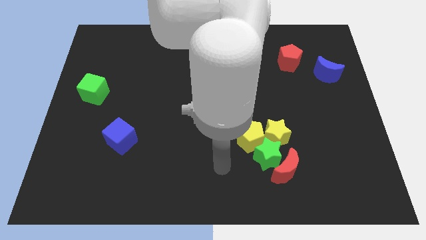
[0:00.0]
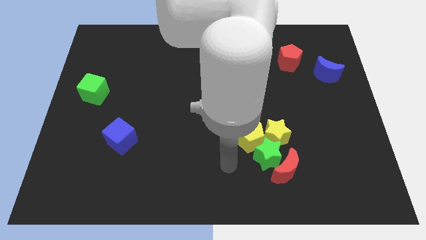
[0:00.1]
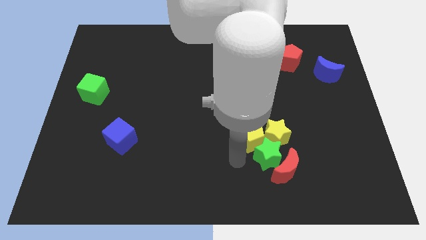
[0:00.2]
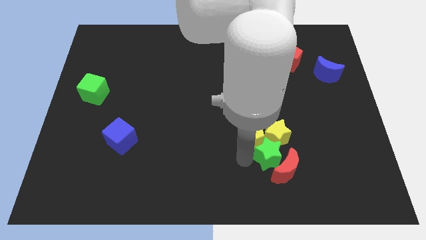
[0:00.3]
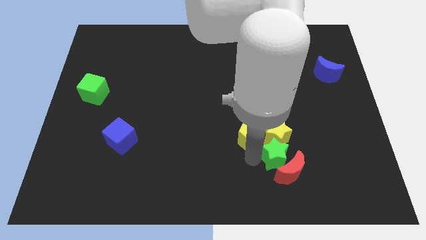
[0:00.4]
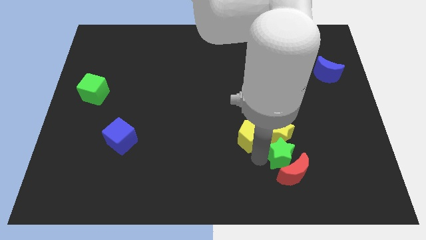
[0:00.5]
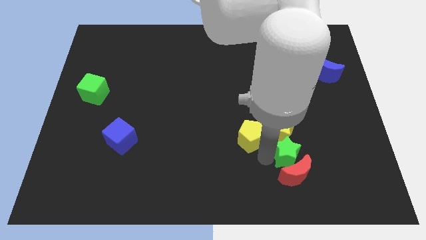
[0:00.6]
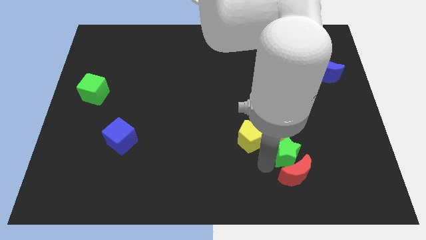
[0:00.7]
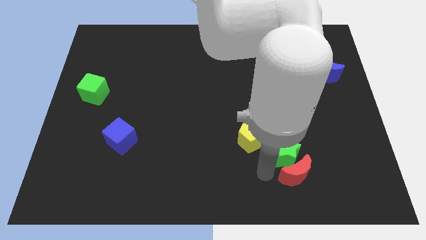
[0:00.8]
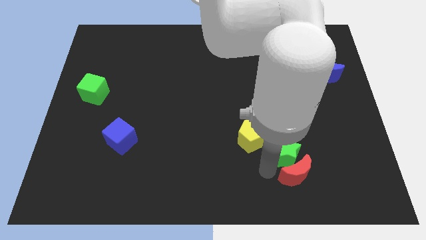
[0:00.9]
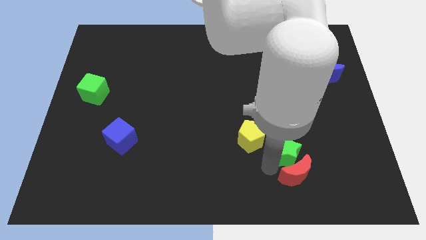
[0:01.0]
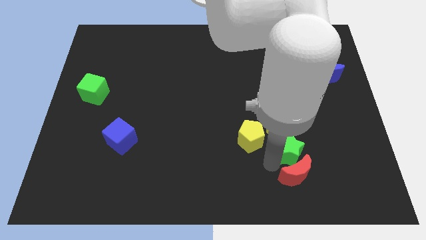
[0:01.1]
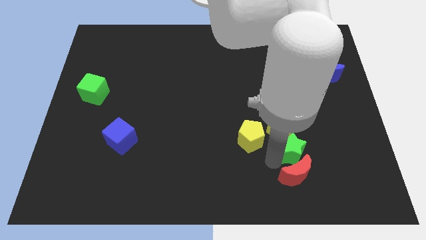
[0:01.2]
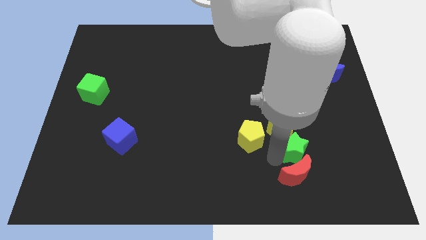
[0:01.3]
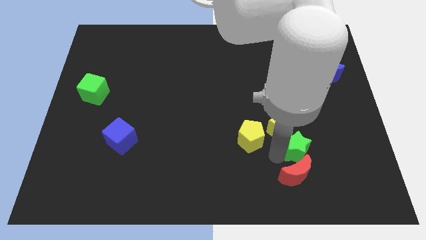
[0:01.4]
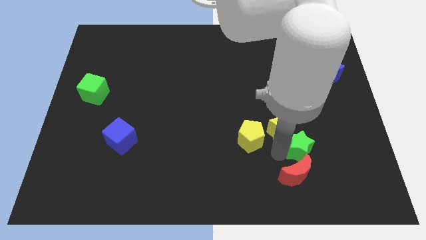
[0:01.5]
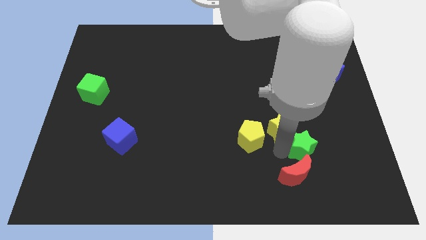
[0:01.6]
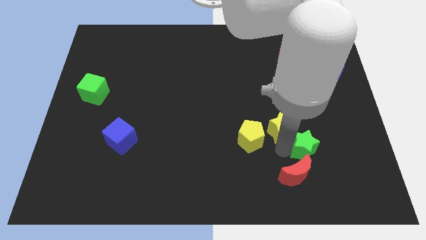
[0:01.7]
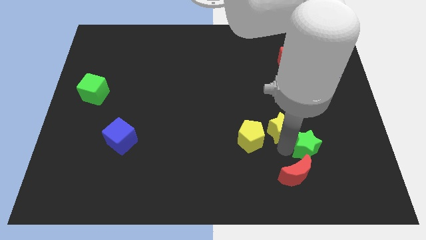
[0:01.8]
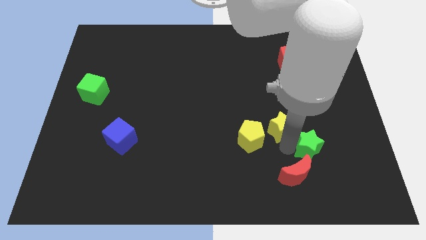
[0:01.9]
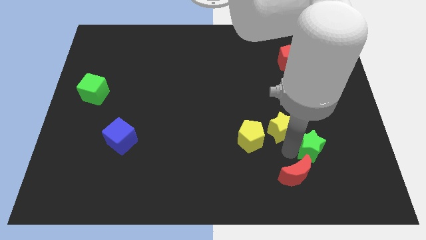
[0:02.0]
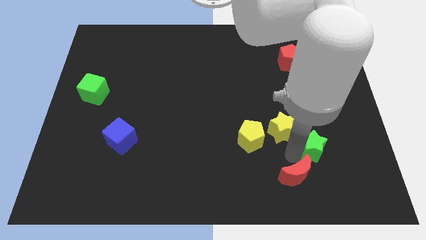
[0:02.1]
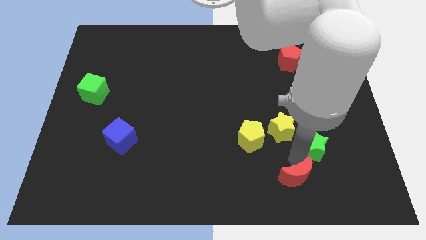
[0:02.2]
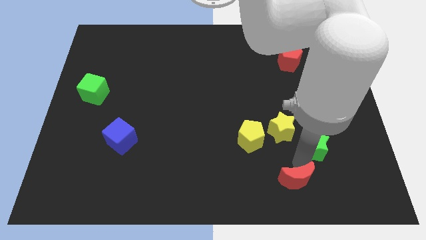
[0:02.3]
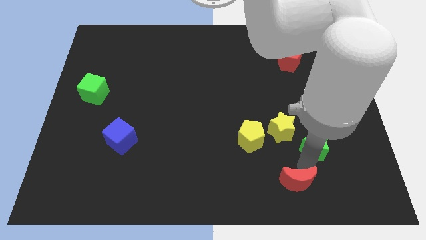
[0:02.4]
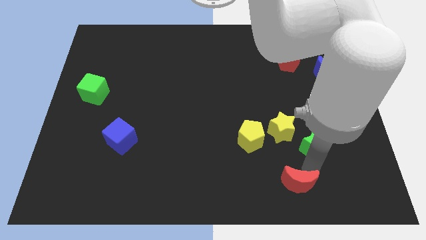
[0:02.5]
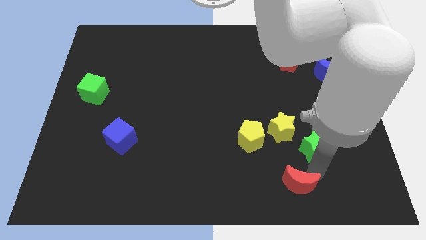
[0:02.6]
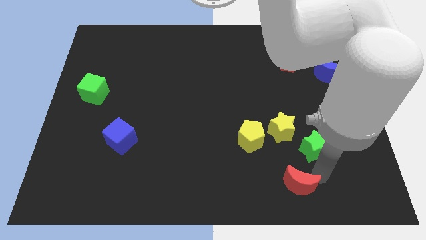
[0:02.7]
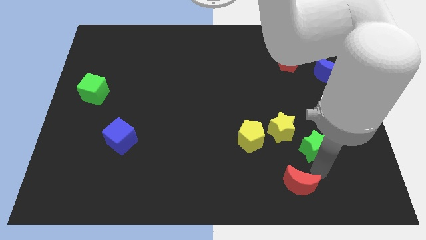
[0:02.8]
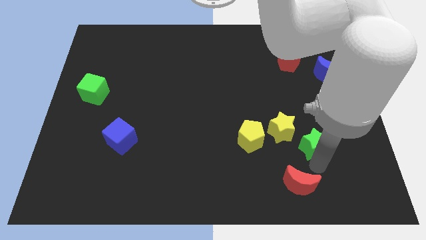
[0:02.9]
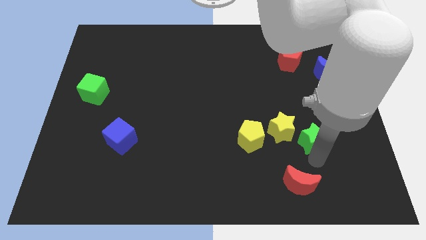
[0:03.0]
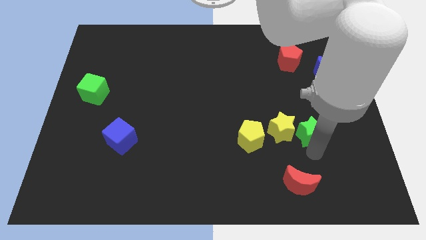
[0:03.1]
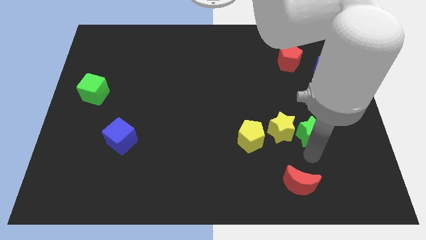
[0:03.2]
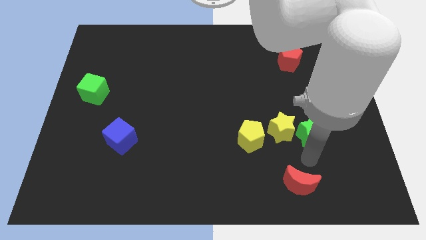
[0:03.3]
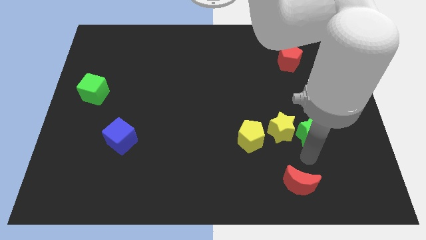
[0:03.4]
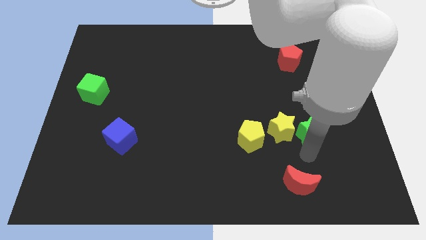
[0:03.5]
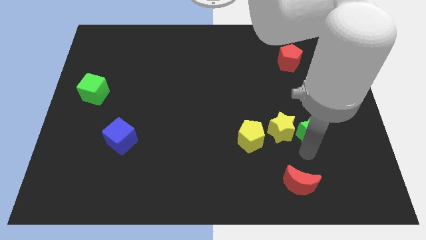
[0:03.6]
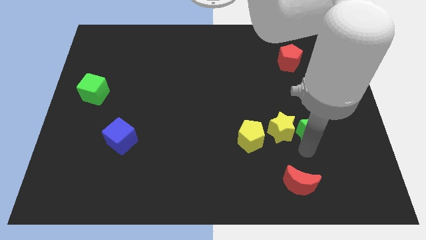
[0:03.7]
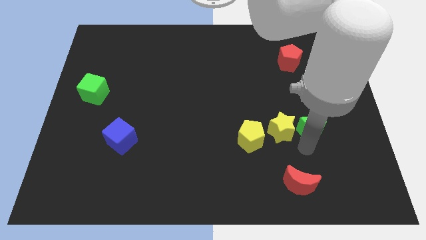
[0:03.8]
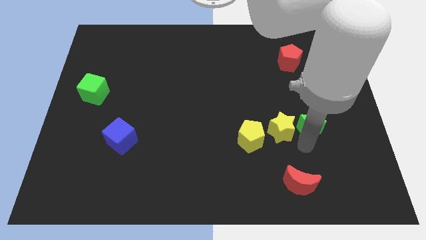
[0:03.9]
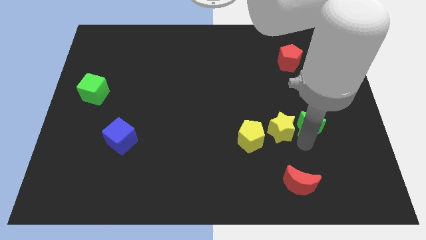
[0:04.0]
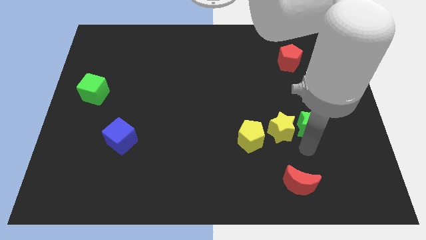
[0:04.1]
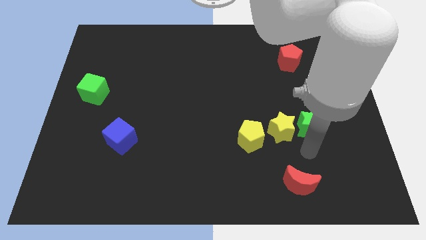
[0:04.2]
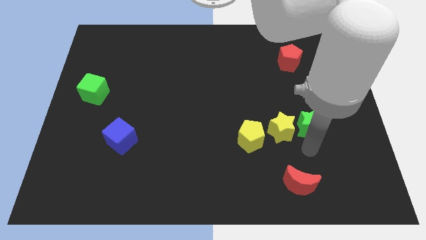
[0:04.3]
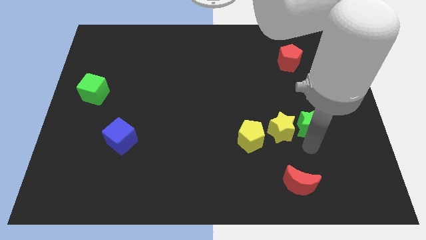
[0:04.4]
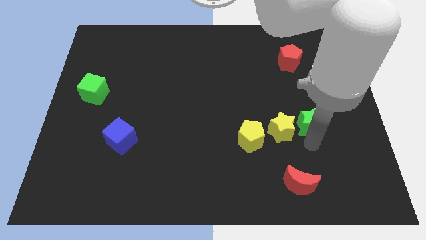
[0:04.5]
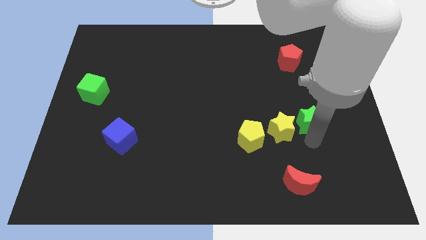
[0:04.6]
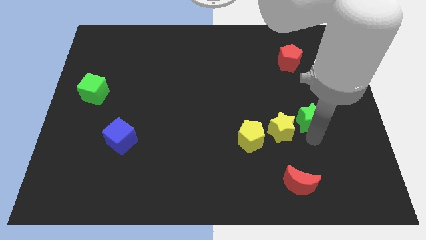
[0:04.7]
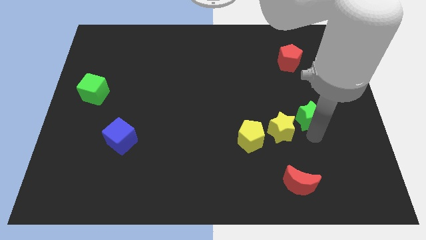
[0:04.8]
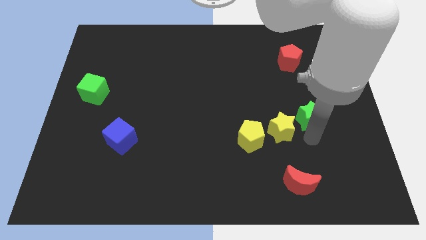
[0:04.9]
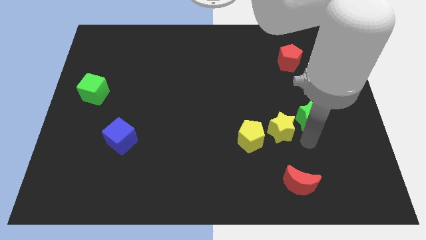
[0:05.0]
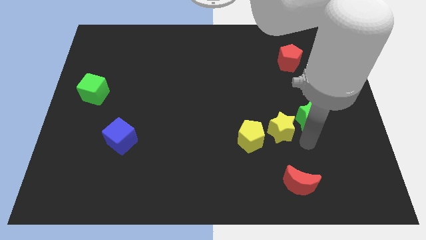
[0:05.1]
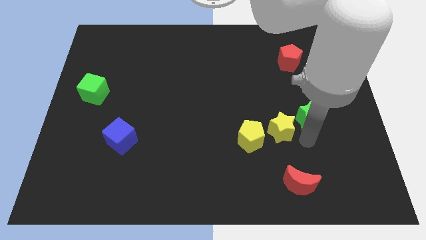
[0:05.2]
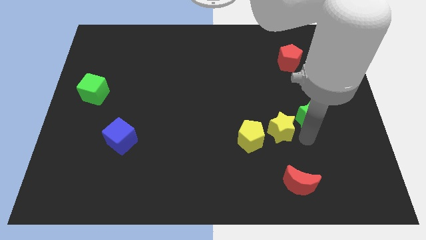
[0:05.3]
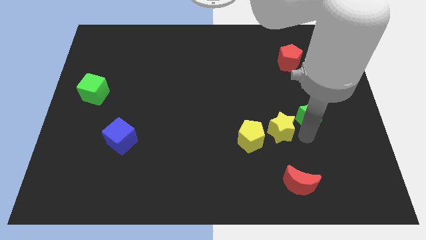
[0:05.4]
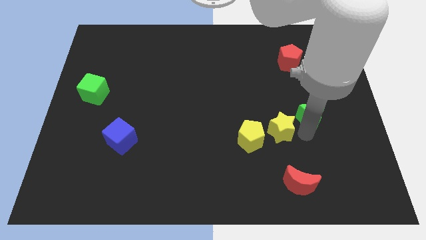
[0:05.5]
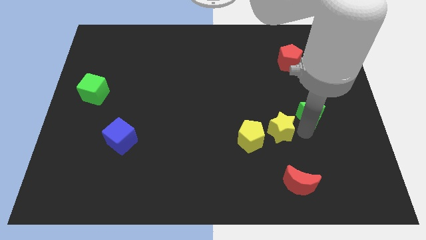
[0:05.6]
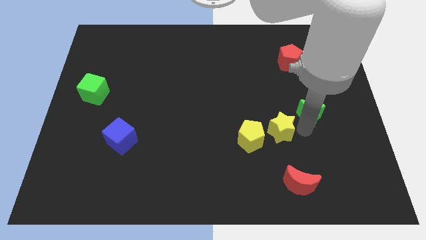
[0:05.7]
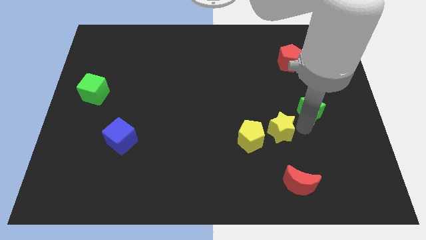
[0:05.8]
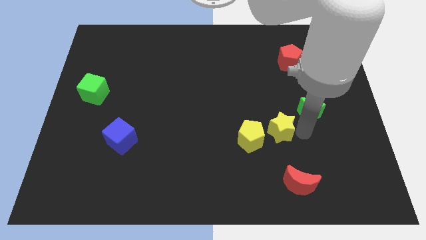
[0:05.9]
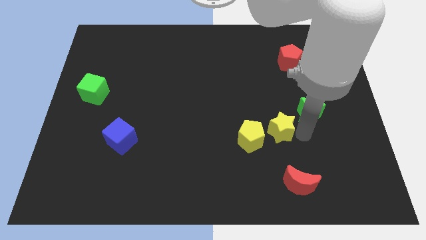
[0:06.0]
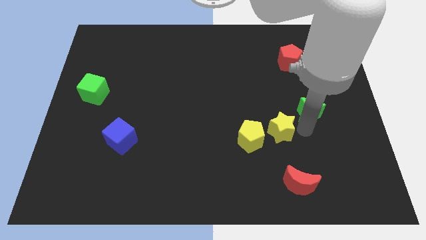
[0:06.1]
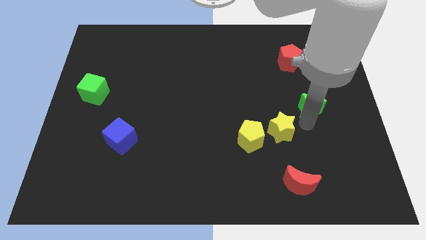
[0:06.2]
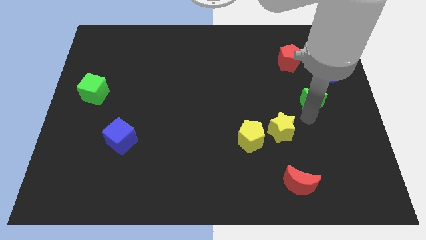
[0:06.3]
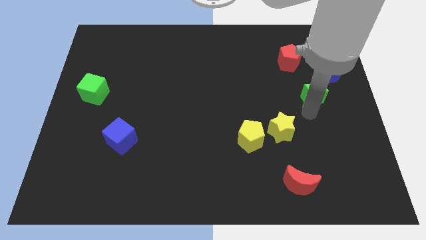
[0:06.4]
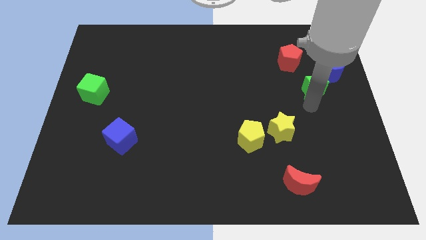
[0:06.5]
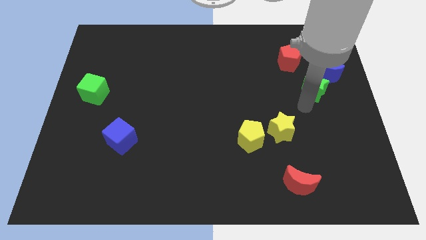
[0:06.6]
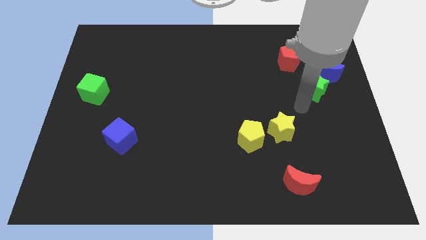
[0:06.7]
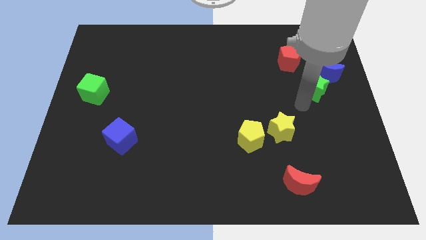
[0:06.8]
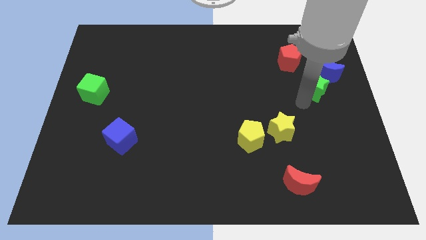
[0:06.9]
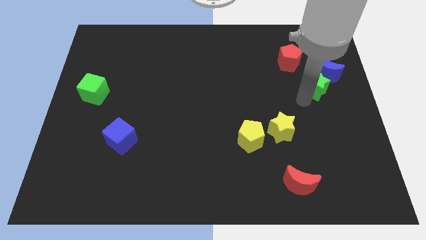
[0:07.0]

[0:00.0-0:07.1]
slide the green star towards the blue moon
